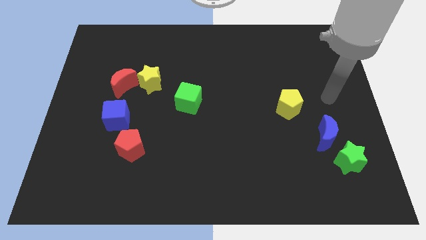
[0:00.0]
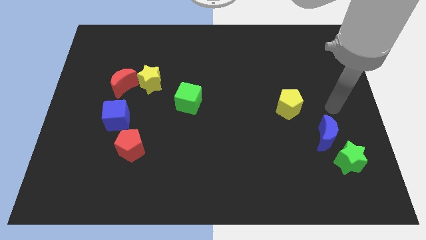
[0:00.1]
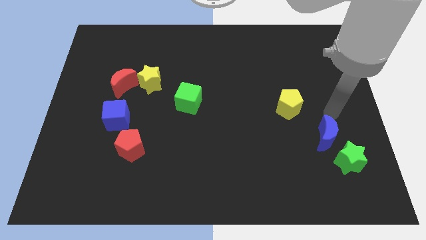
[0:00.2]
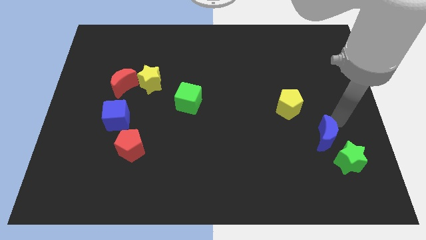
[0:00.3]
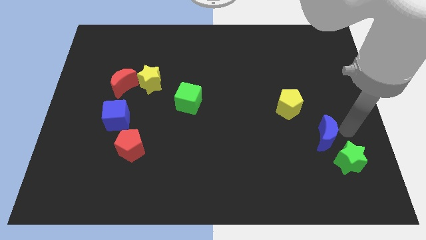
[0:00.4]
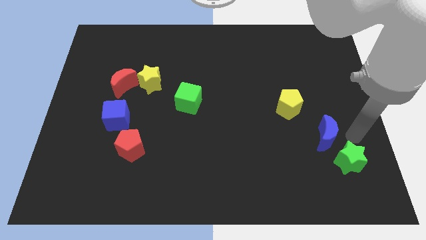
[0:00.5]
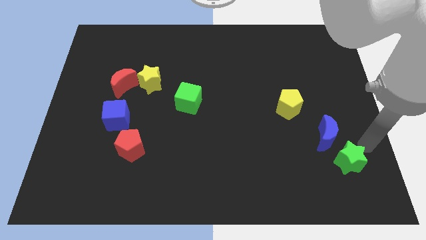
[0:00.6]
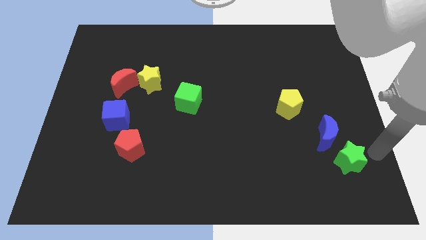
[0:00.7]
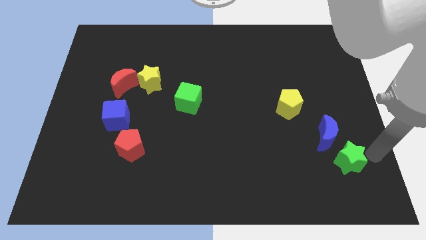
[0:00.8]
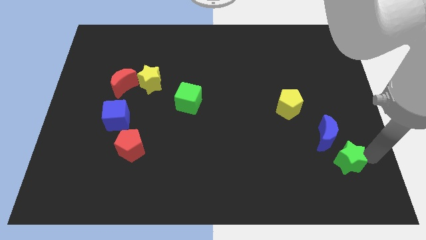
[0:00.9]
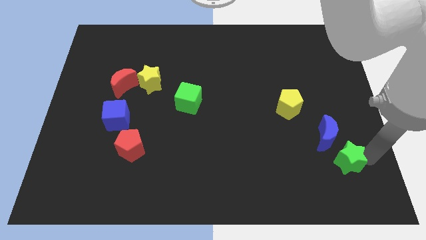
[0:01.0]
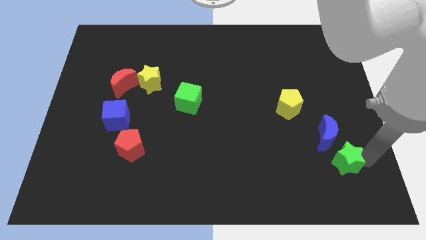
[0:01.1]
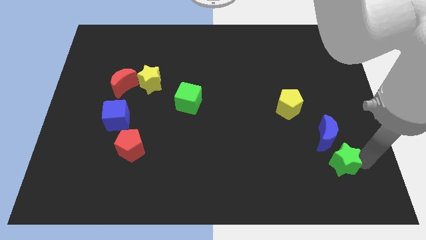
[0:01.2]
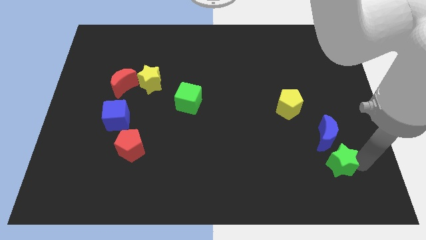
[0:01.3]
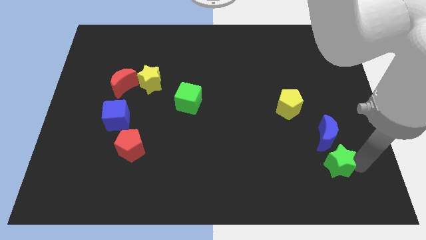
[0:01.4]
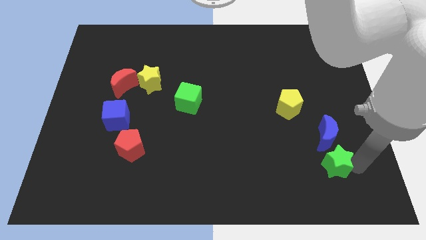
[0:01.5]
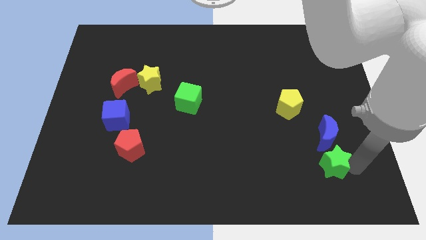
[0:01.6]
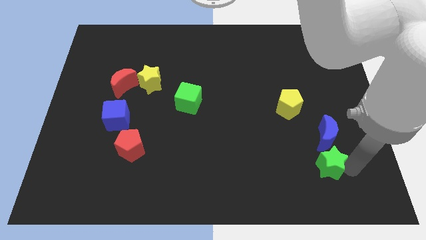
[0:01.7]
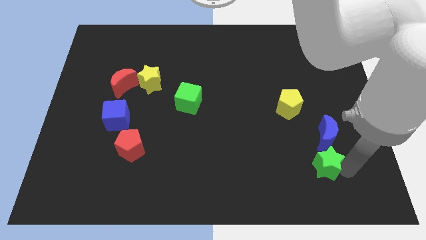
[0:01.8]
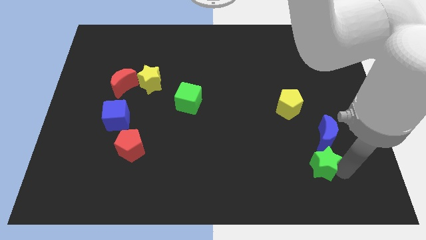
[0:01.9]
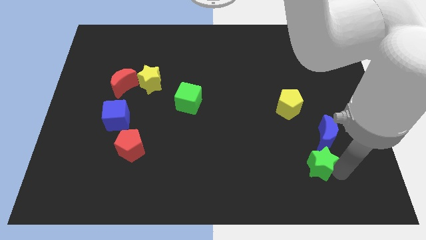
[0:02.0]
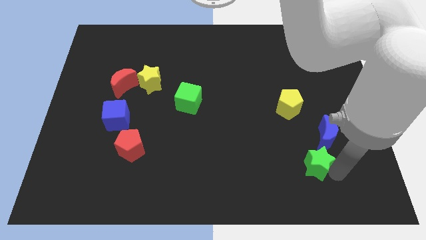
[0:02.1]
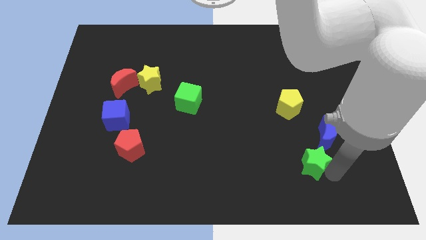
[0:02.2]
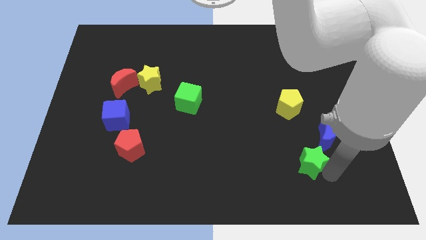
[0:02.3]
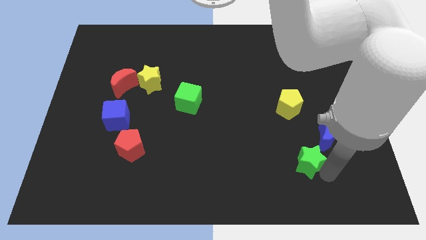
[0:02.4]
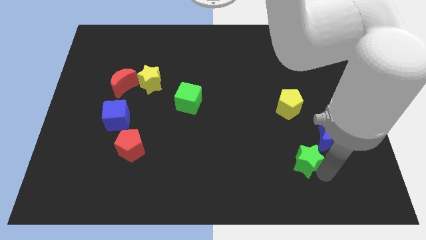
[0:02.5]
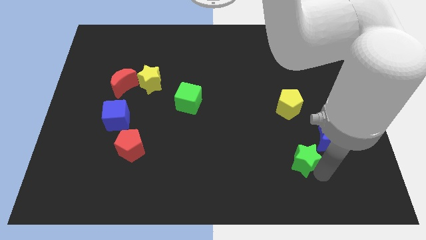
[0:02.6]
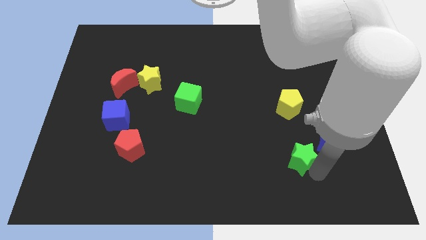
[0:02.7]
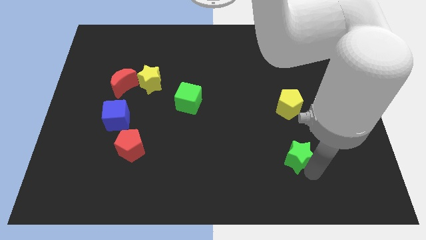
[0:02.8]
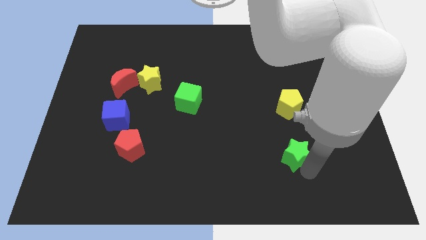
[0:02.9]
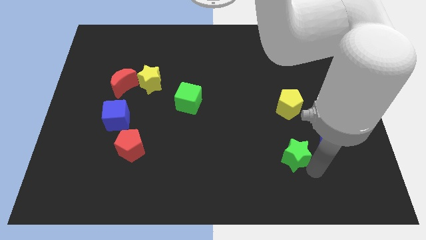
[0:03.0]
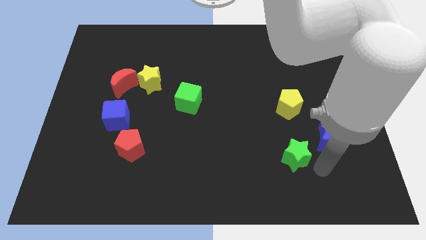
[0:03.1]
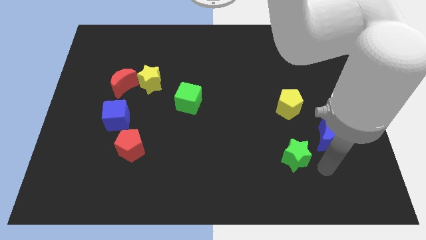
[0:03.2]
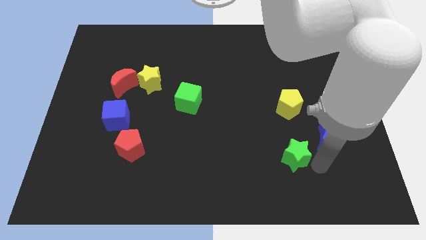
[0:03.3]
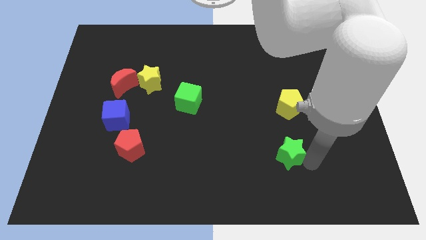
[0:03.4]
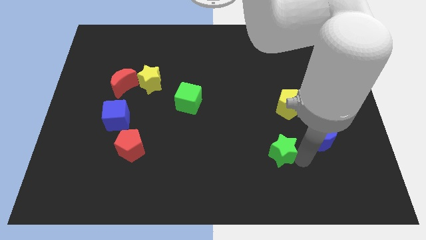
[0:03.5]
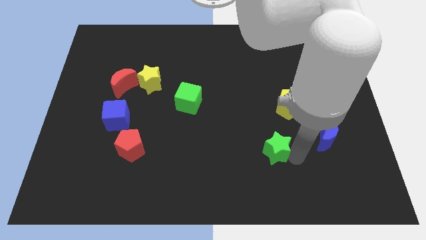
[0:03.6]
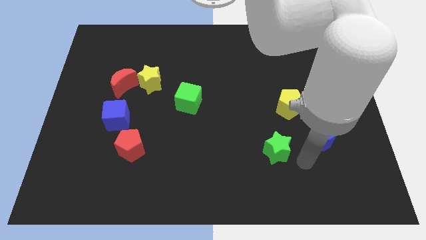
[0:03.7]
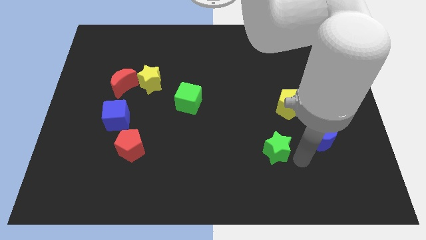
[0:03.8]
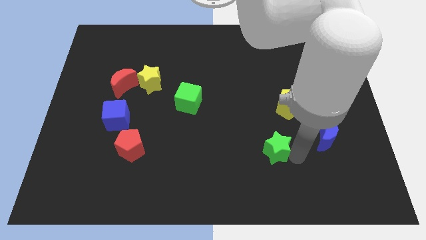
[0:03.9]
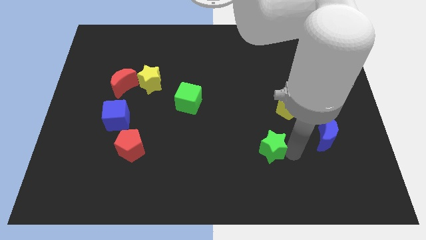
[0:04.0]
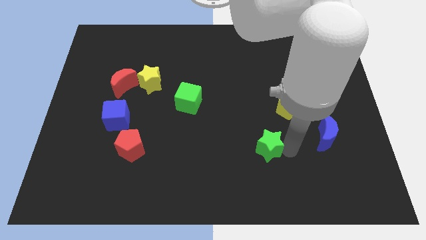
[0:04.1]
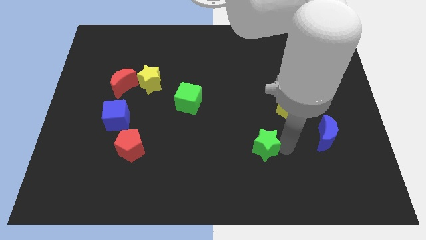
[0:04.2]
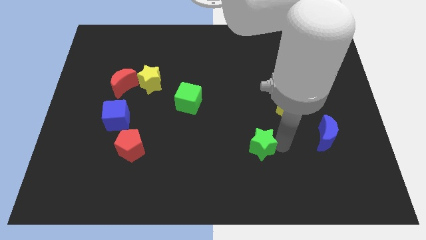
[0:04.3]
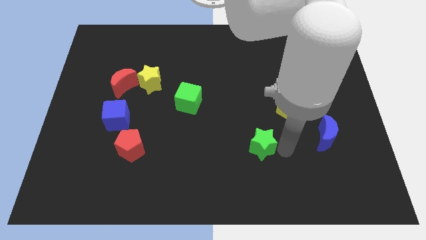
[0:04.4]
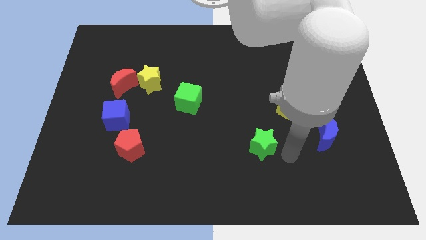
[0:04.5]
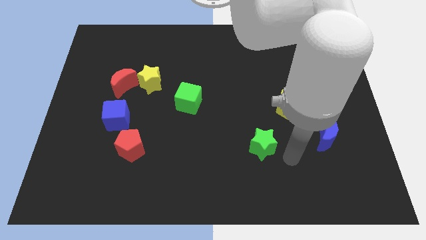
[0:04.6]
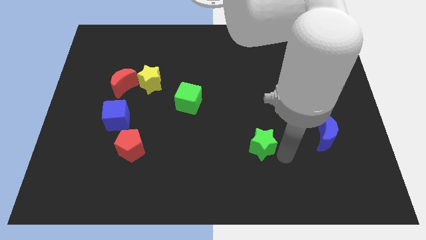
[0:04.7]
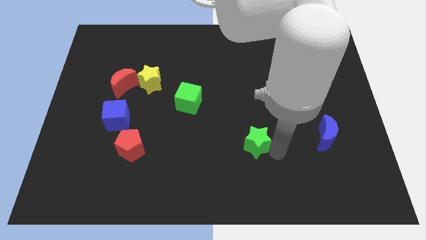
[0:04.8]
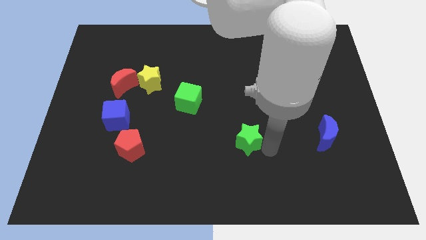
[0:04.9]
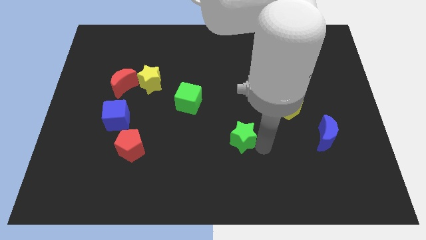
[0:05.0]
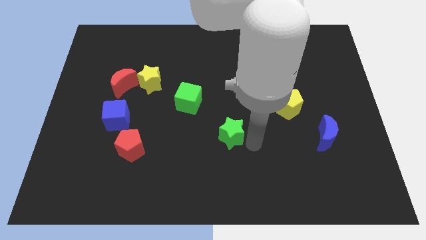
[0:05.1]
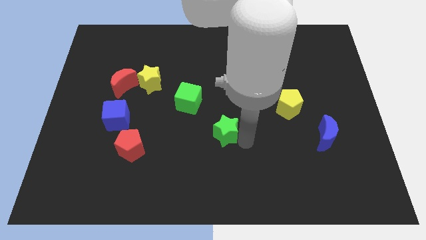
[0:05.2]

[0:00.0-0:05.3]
slide the green star diagonally down and to the right of the green cube

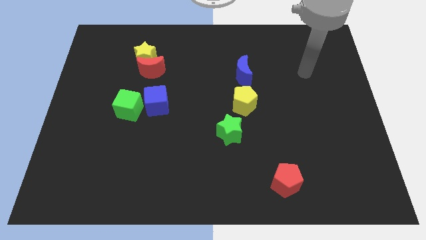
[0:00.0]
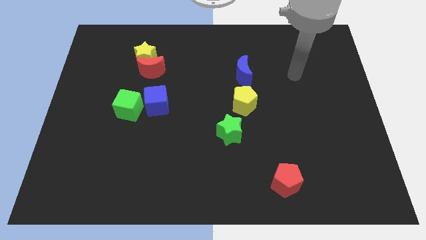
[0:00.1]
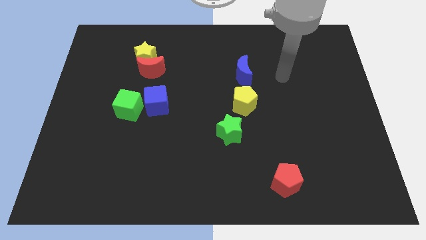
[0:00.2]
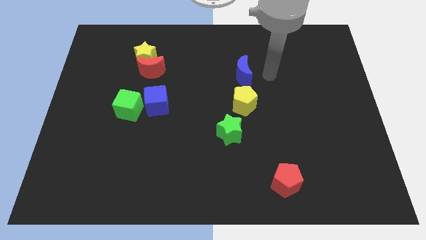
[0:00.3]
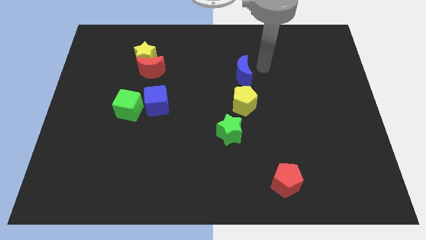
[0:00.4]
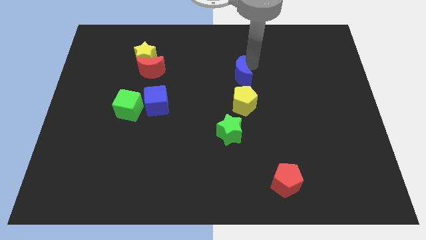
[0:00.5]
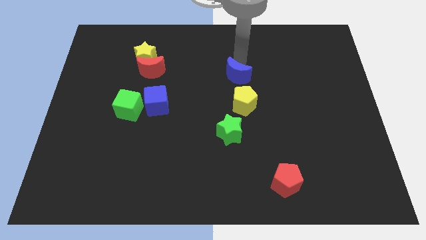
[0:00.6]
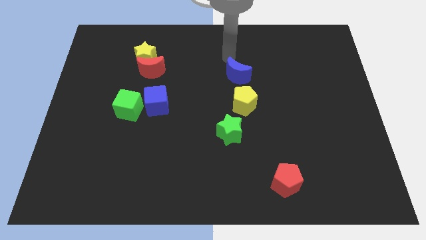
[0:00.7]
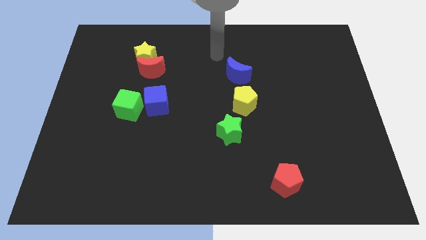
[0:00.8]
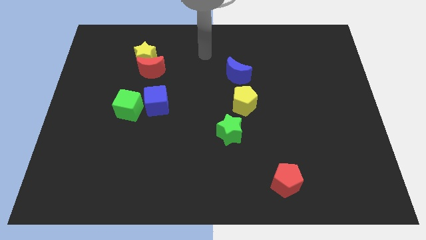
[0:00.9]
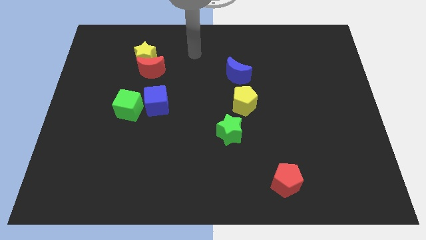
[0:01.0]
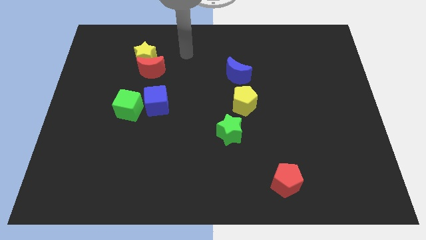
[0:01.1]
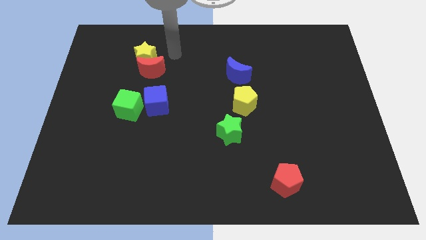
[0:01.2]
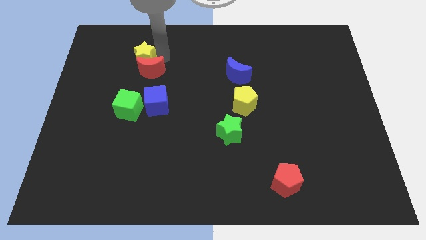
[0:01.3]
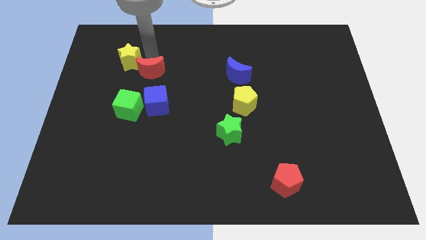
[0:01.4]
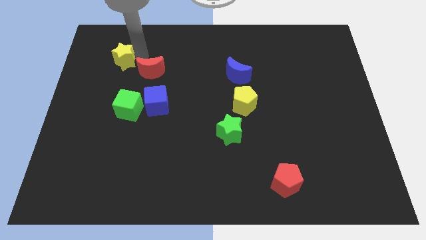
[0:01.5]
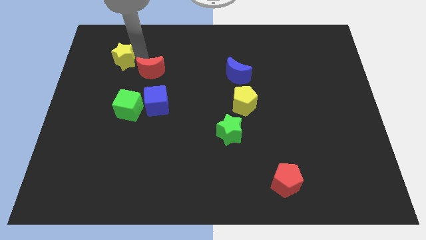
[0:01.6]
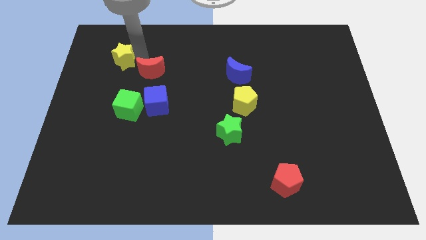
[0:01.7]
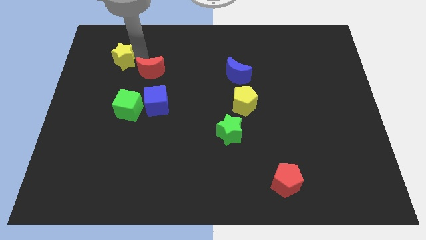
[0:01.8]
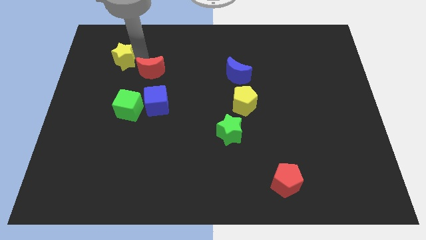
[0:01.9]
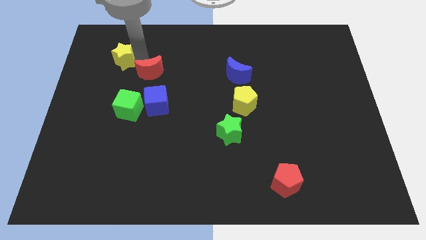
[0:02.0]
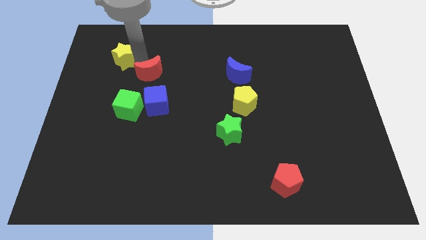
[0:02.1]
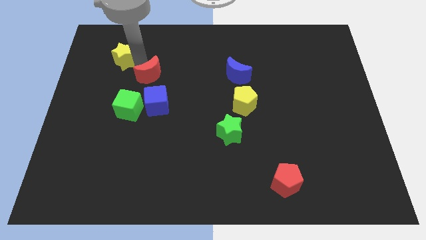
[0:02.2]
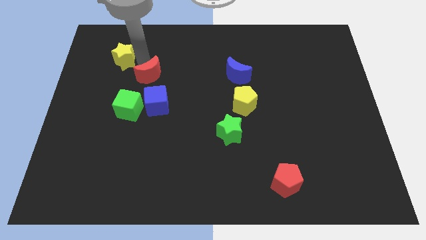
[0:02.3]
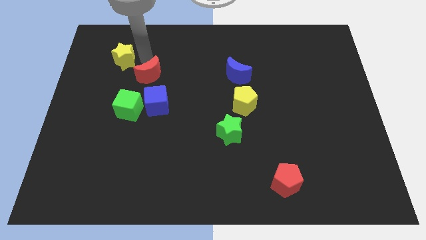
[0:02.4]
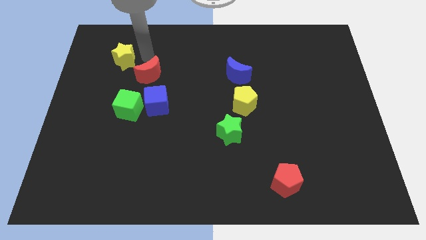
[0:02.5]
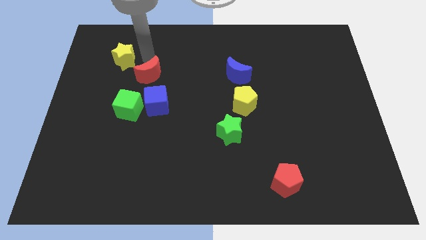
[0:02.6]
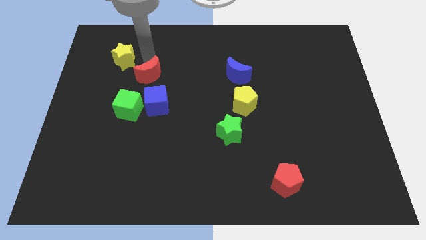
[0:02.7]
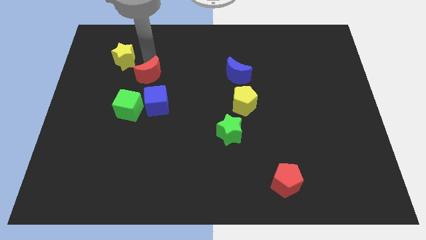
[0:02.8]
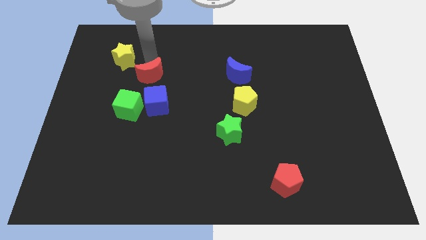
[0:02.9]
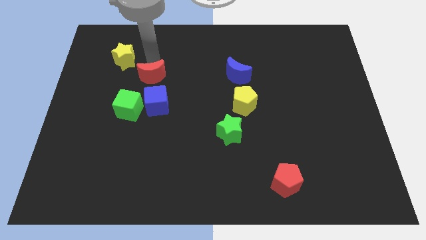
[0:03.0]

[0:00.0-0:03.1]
move the red moon diagonally up and to the right of the green cube

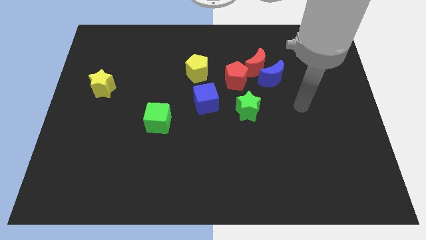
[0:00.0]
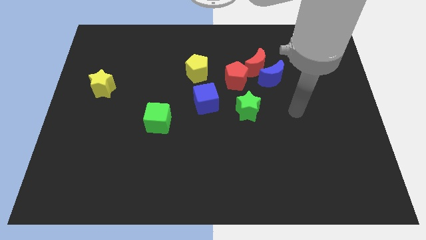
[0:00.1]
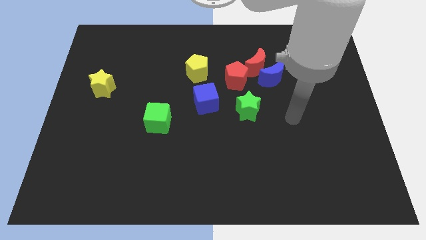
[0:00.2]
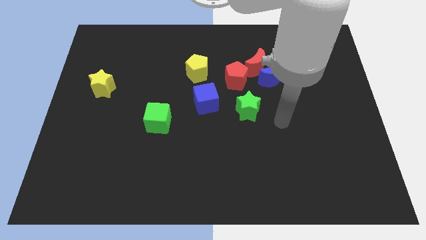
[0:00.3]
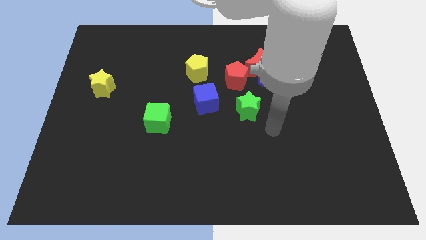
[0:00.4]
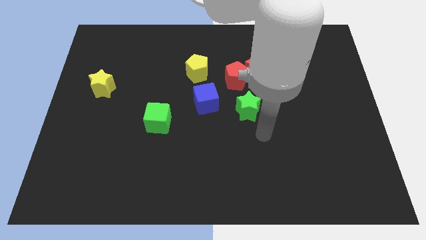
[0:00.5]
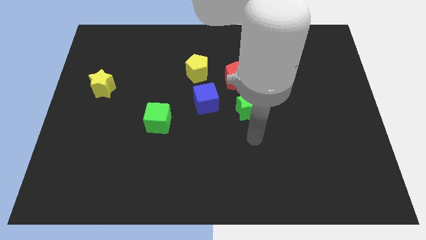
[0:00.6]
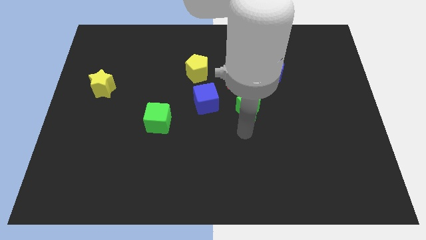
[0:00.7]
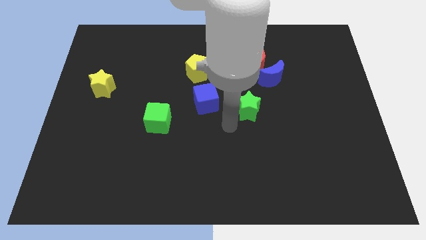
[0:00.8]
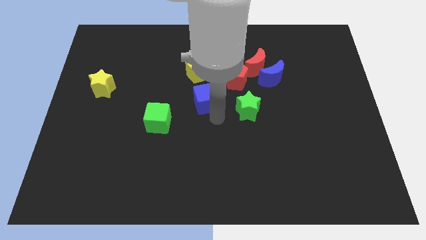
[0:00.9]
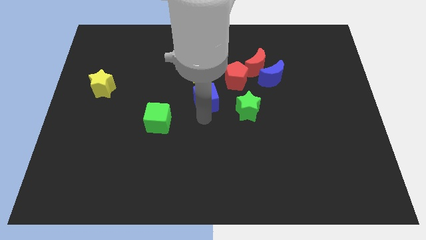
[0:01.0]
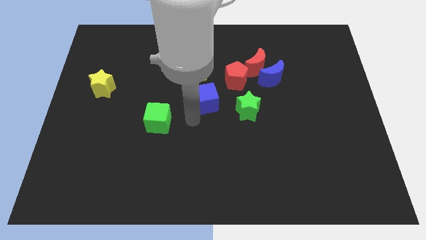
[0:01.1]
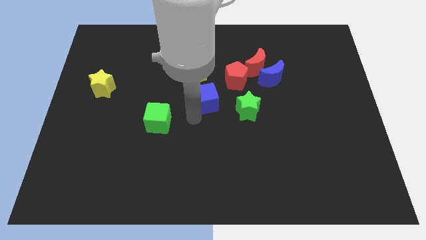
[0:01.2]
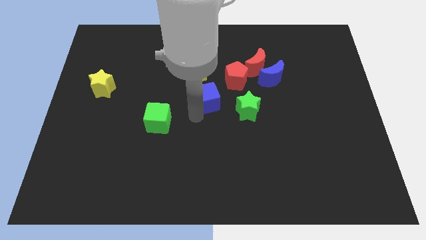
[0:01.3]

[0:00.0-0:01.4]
slide the blue cube diagonally down and to the right of the yellow pentagon
